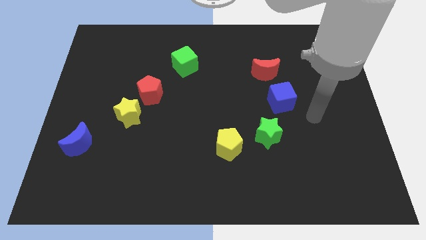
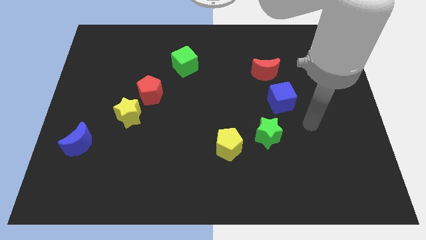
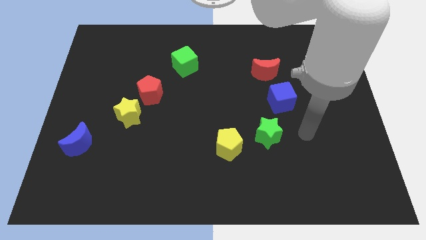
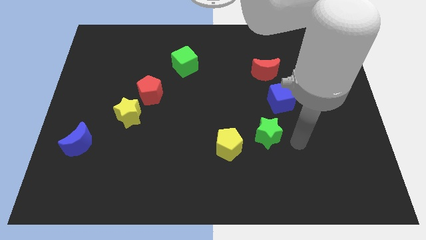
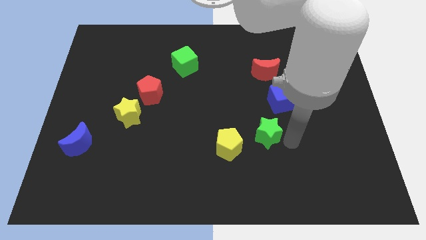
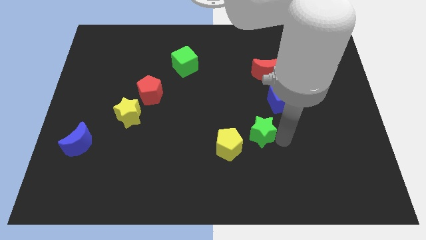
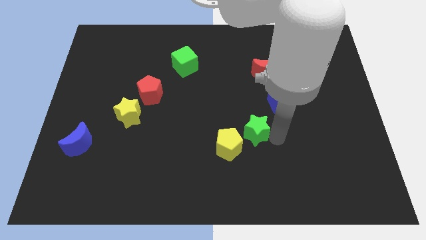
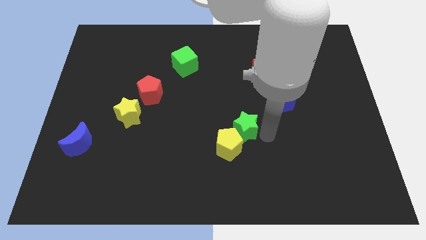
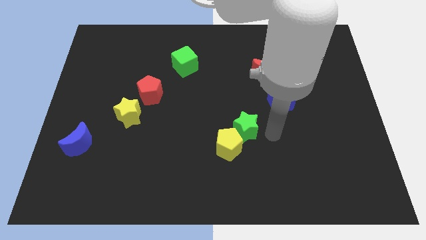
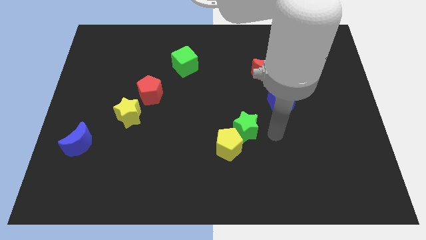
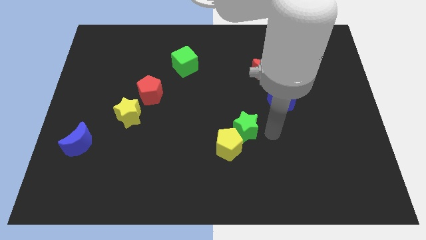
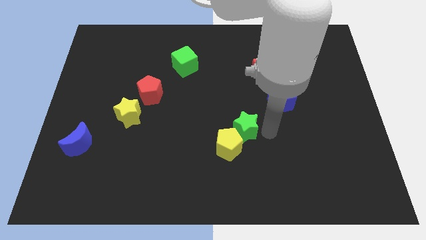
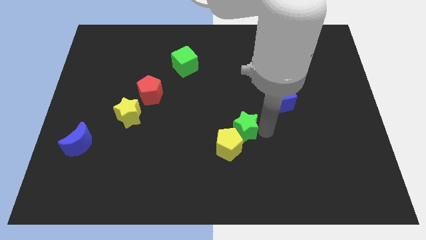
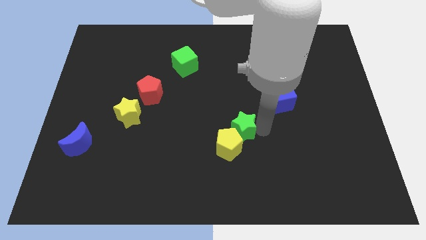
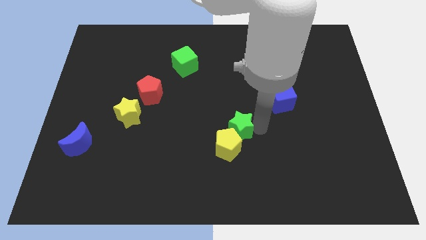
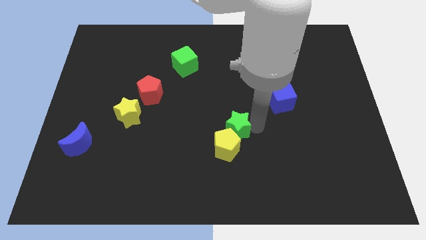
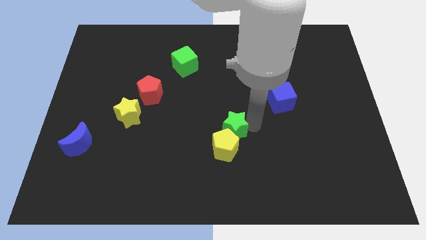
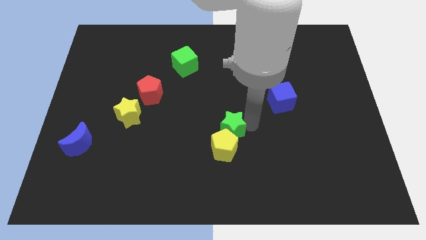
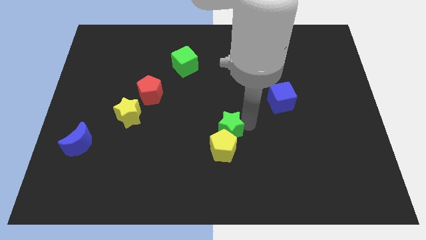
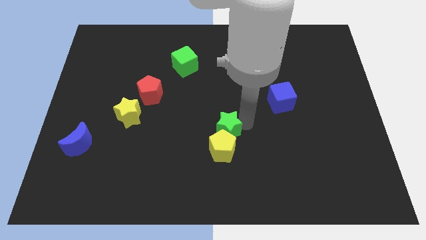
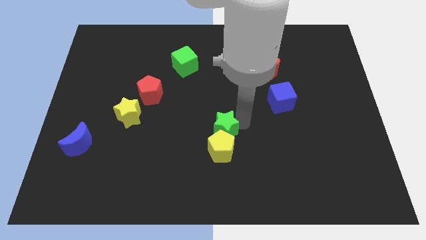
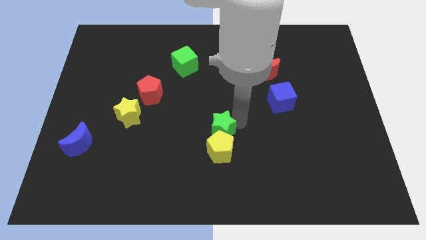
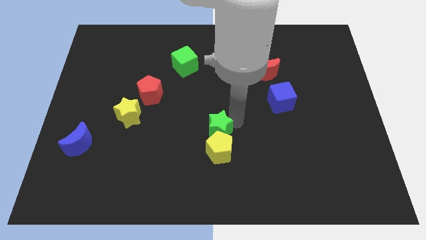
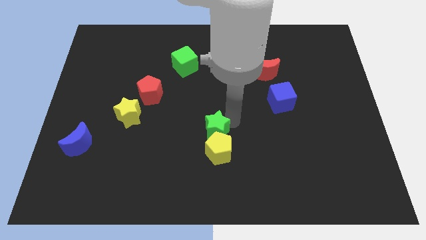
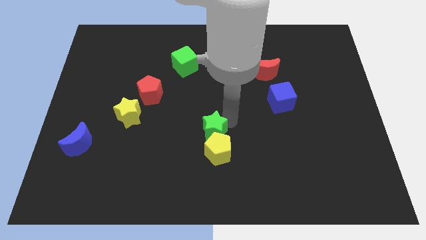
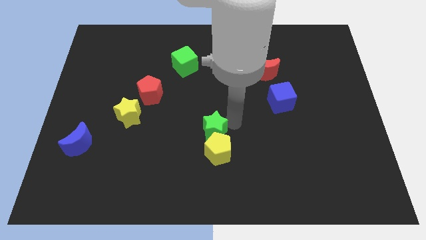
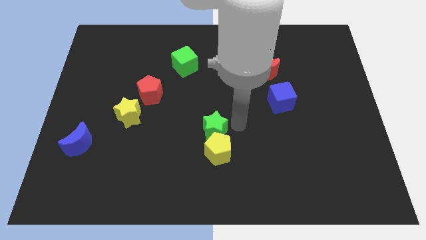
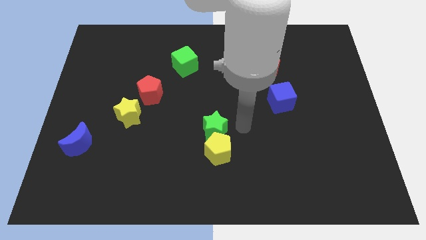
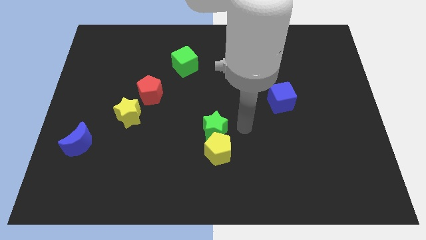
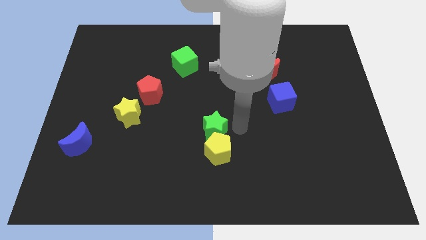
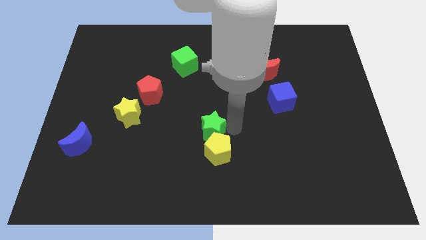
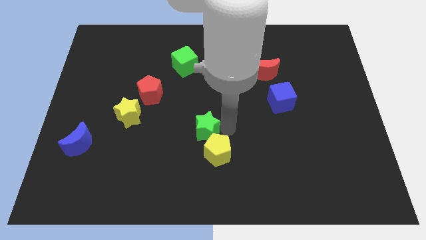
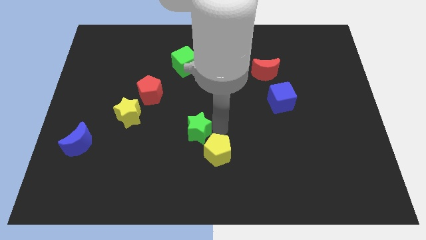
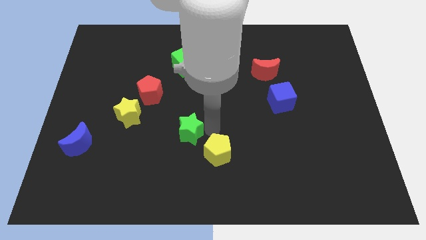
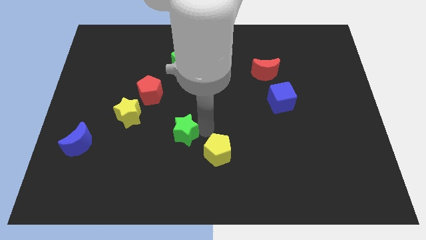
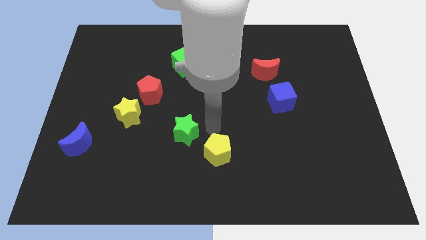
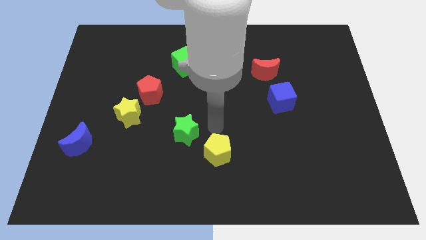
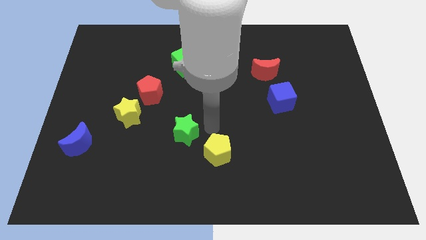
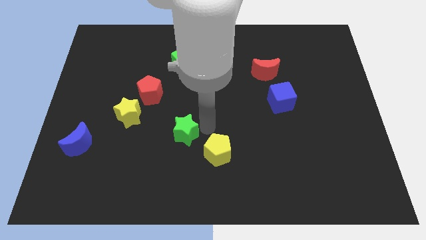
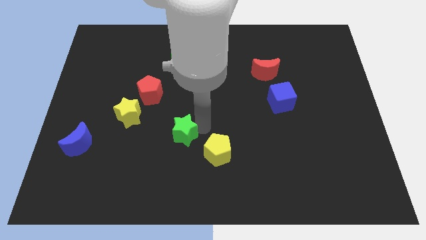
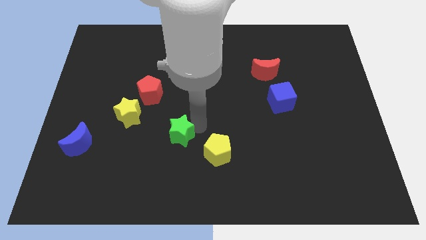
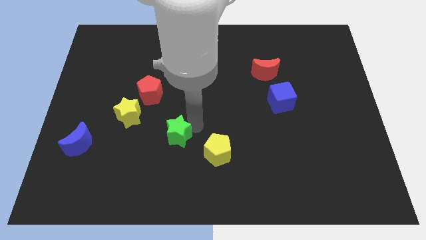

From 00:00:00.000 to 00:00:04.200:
slide the green star left

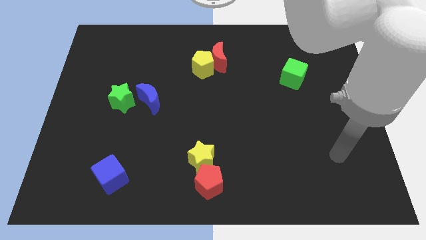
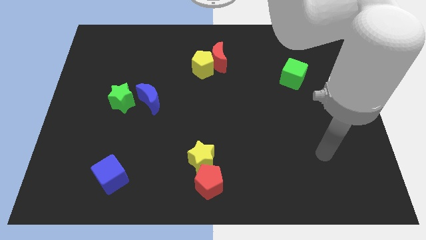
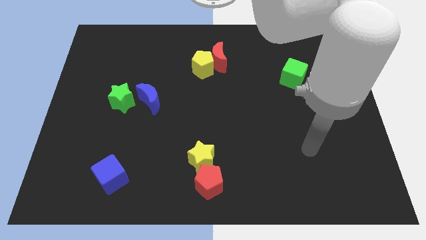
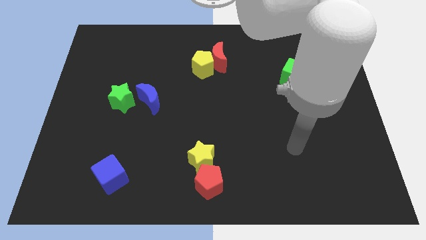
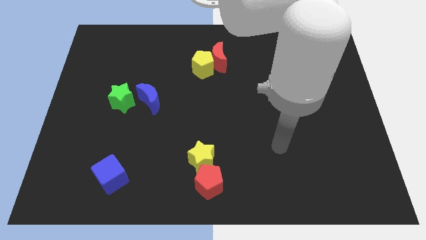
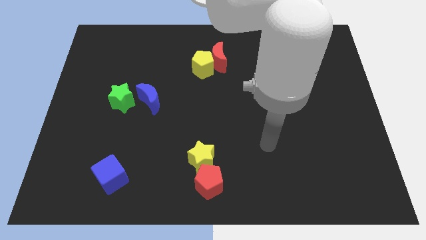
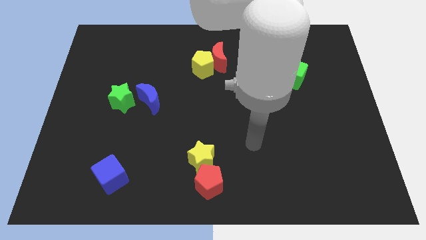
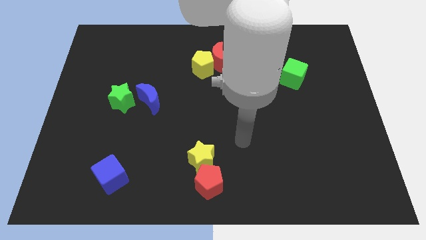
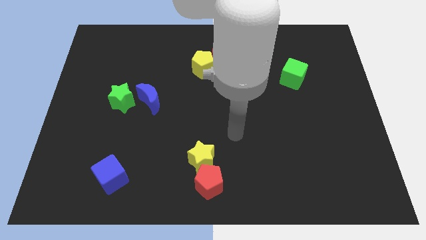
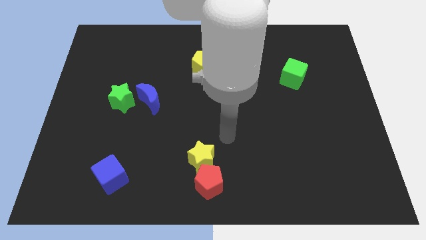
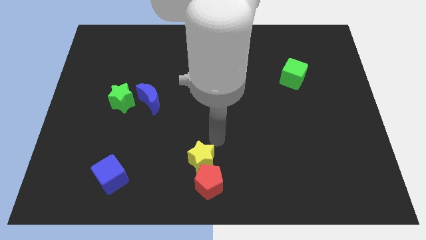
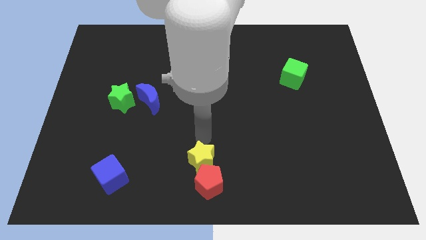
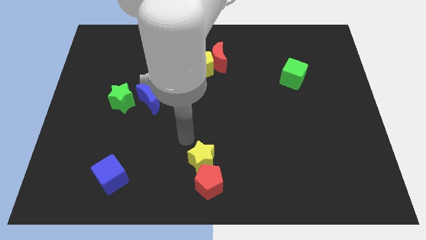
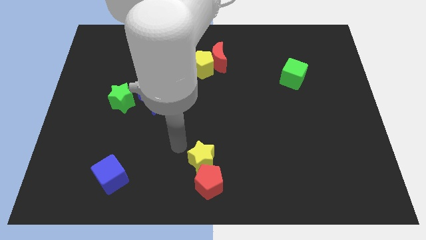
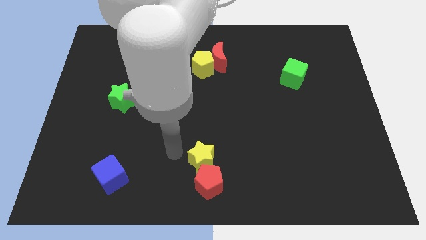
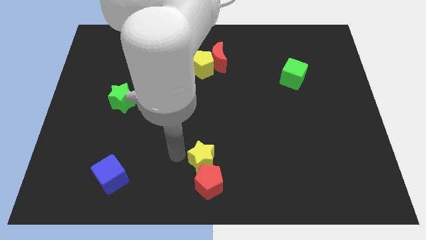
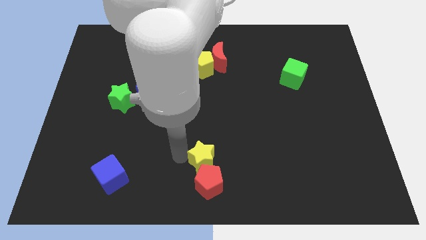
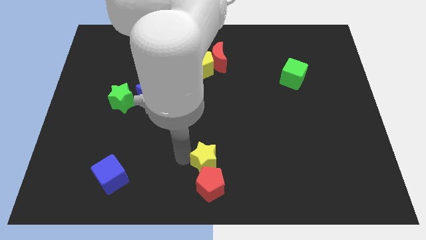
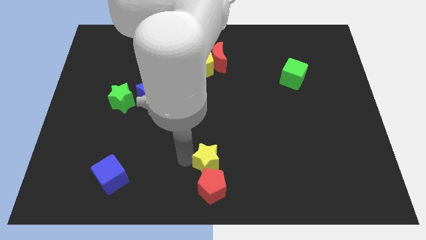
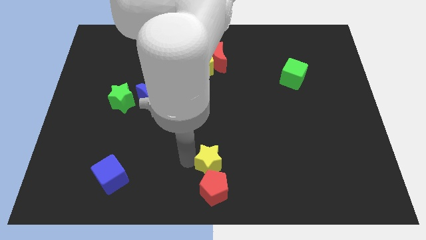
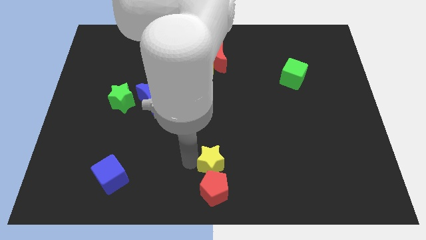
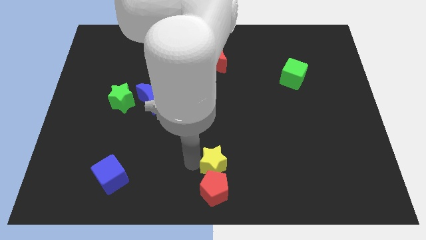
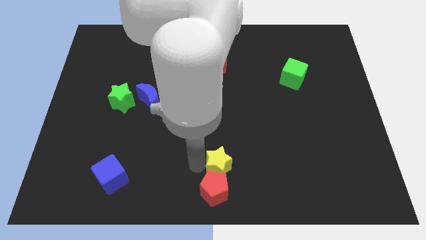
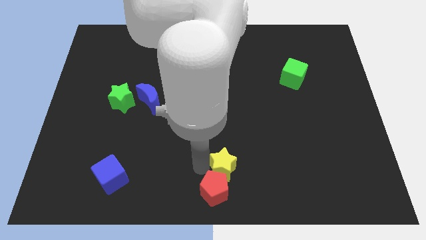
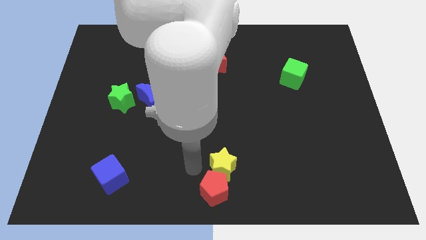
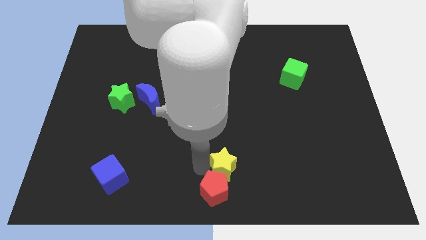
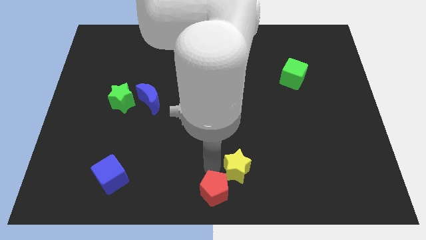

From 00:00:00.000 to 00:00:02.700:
push the yellow star a bit to the right

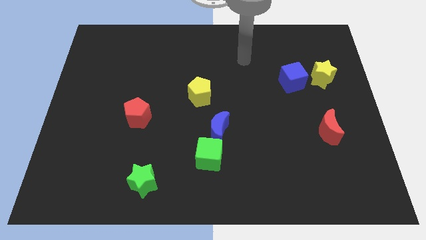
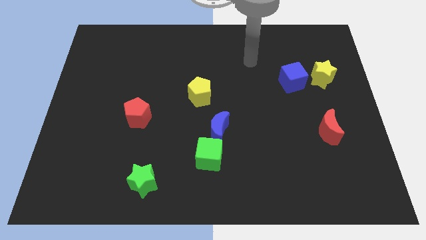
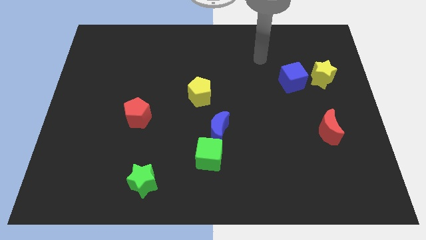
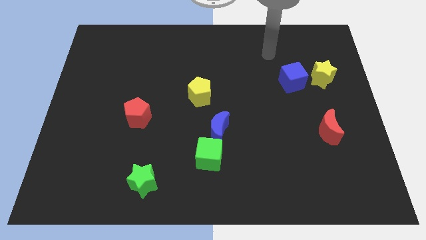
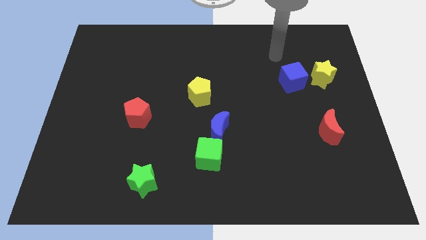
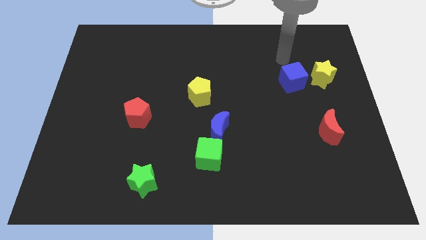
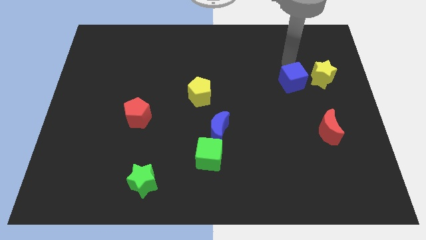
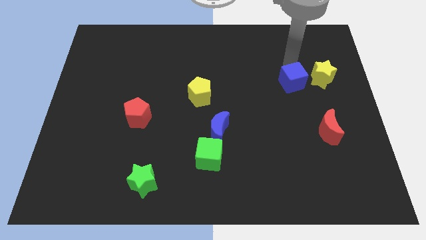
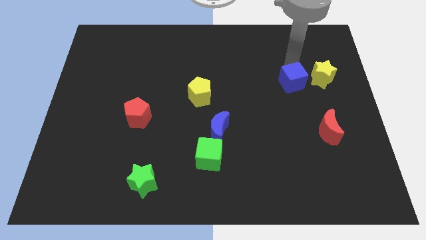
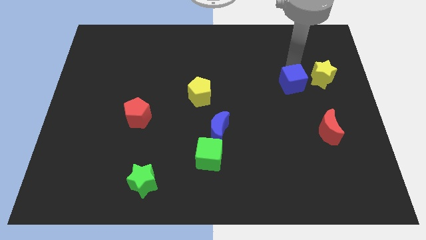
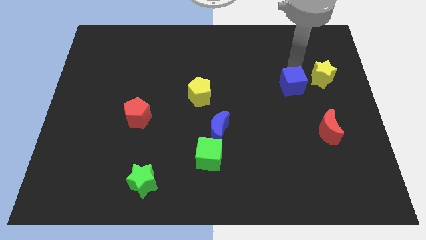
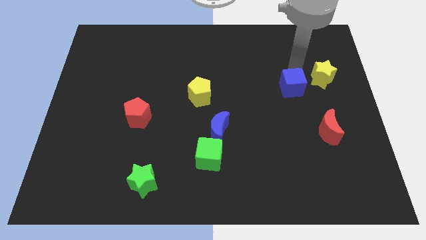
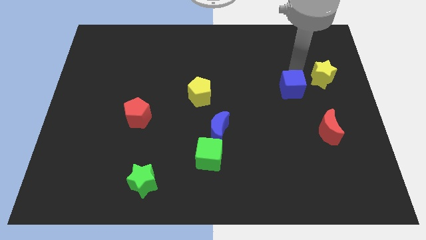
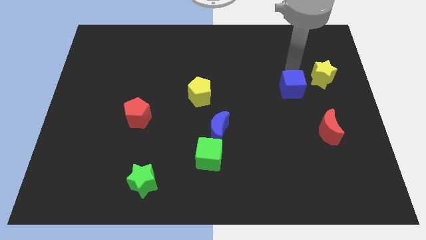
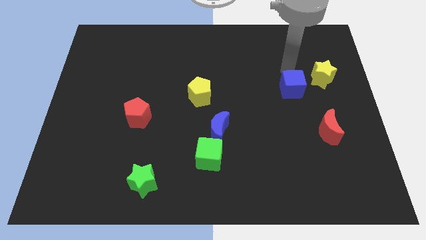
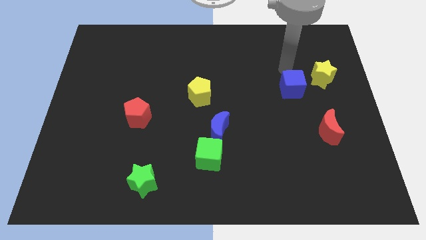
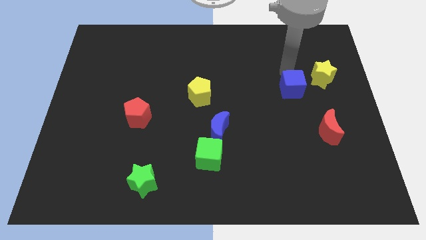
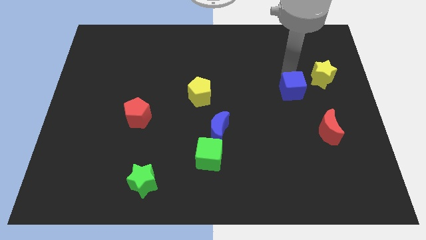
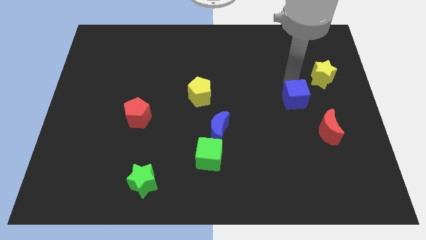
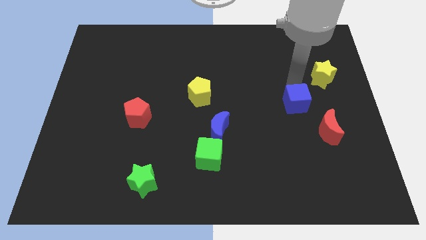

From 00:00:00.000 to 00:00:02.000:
slide the blue cube somewhat down
